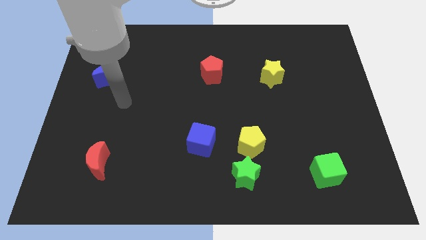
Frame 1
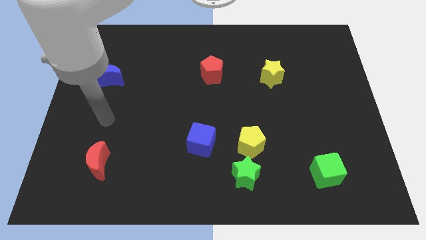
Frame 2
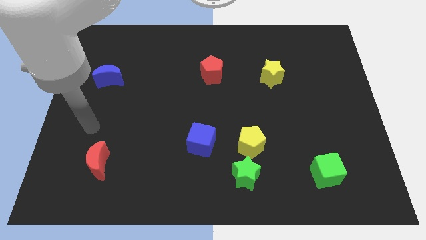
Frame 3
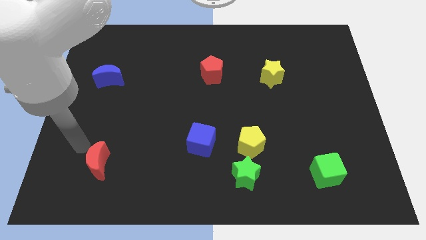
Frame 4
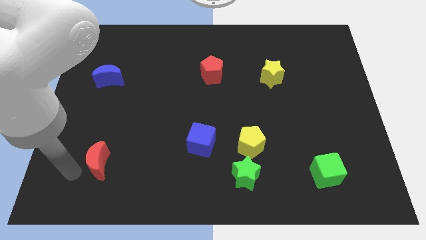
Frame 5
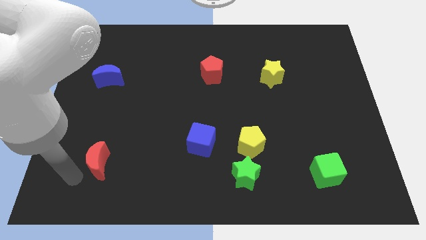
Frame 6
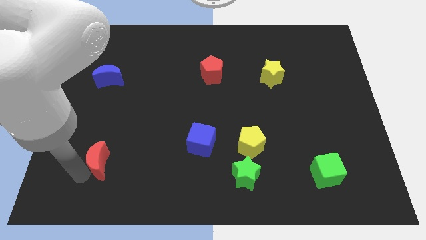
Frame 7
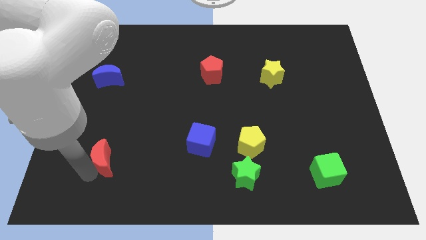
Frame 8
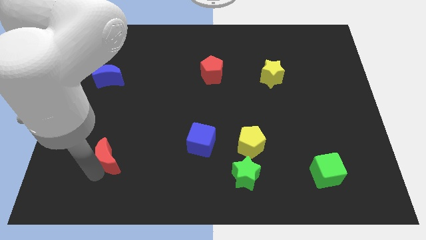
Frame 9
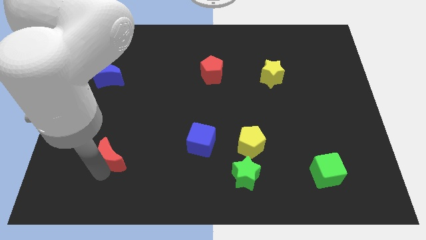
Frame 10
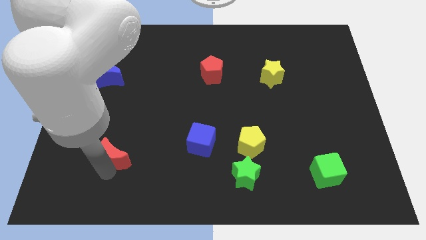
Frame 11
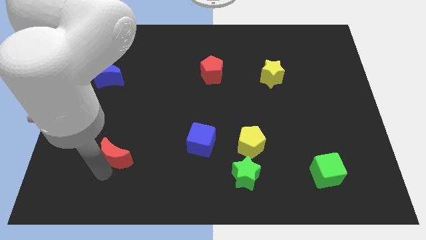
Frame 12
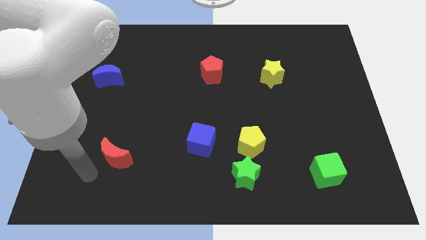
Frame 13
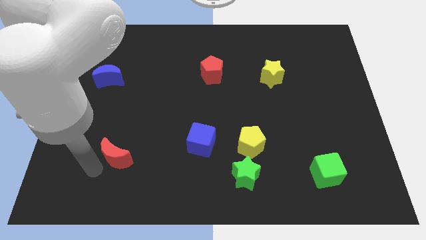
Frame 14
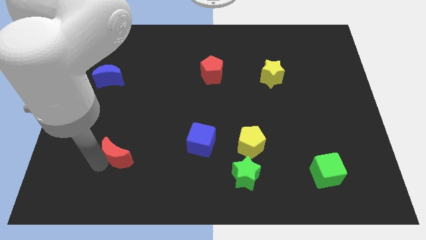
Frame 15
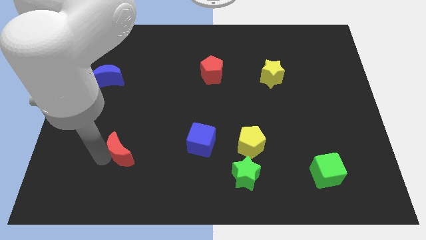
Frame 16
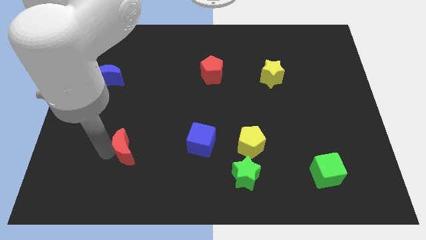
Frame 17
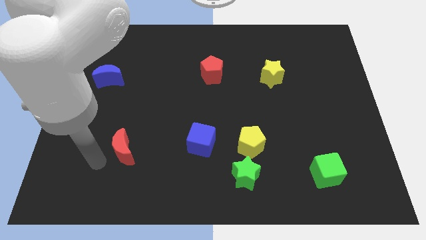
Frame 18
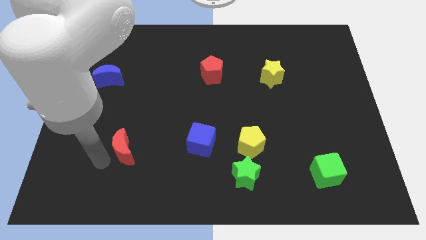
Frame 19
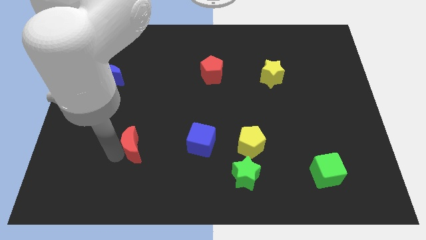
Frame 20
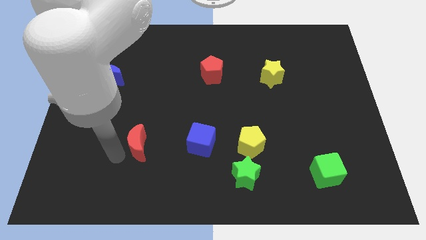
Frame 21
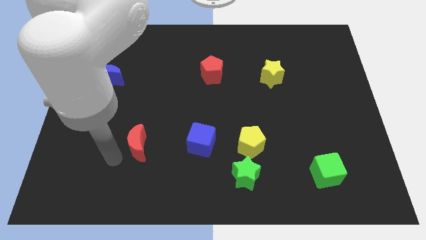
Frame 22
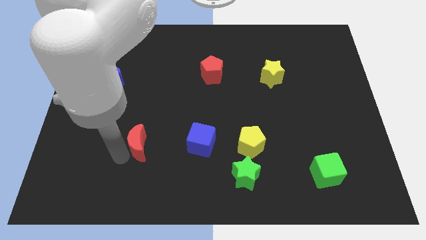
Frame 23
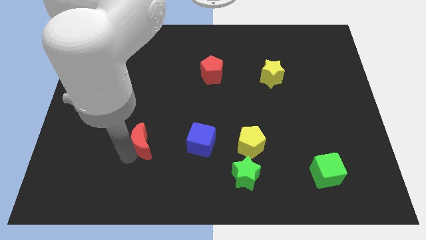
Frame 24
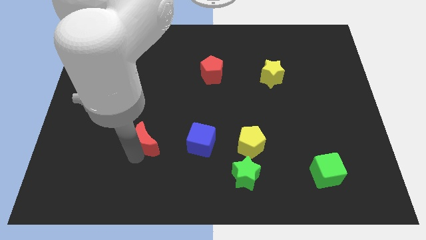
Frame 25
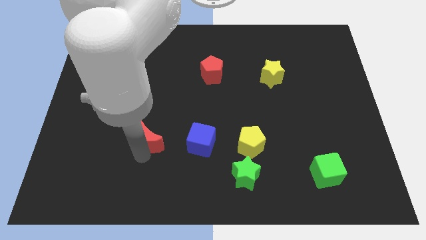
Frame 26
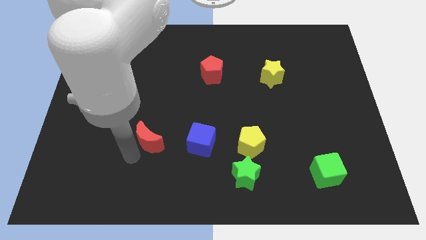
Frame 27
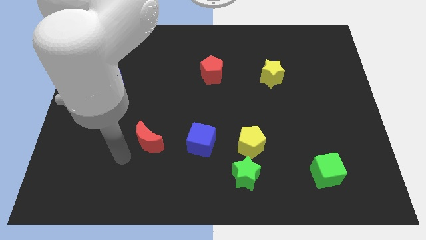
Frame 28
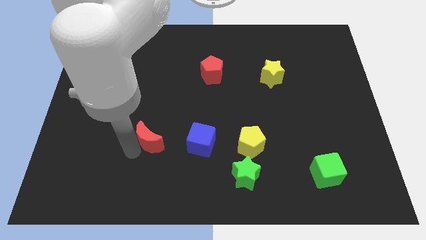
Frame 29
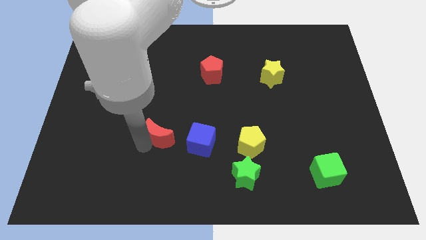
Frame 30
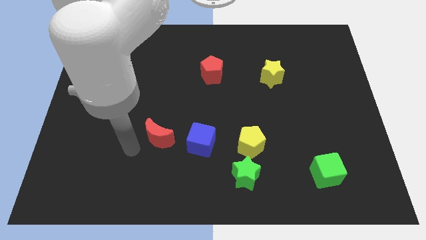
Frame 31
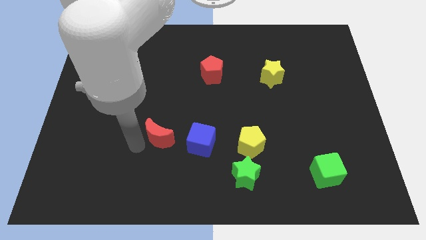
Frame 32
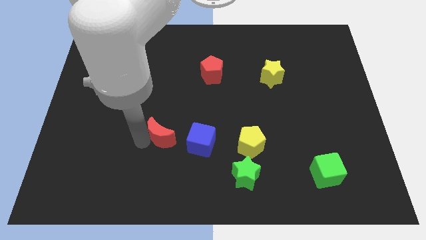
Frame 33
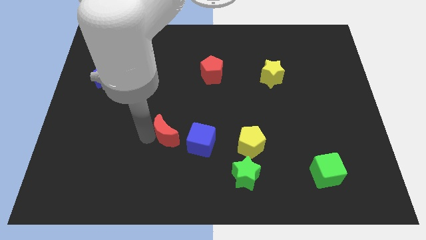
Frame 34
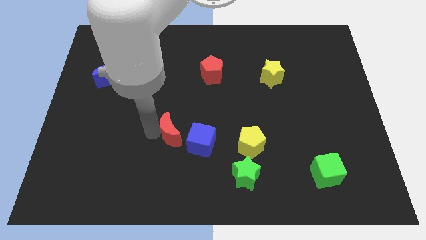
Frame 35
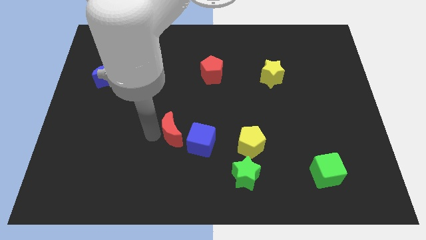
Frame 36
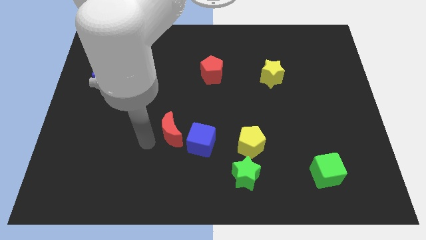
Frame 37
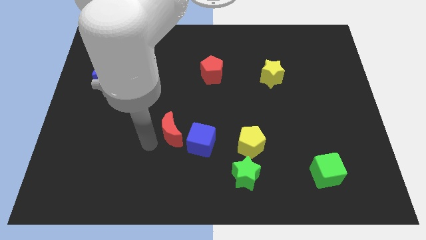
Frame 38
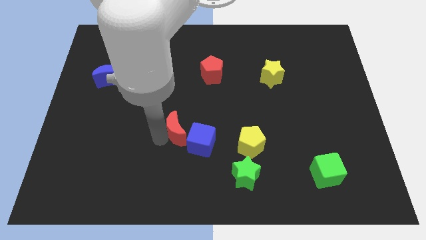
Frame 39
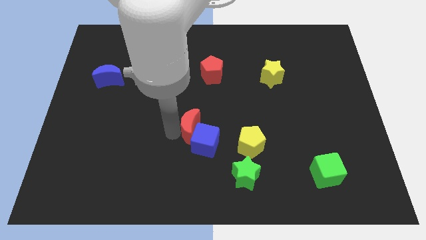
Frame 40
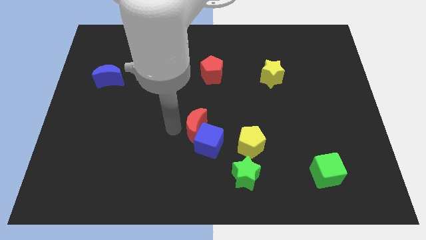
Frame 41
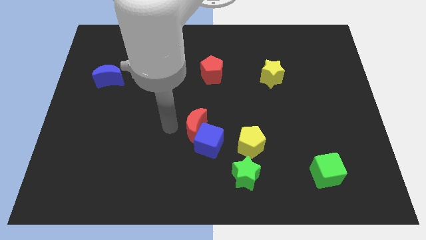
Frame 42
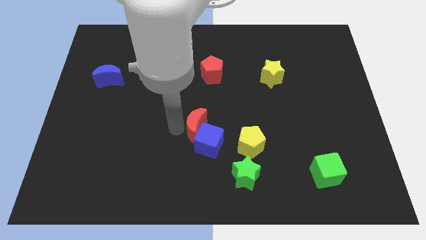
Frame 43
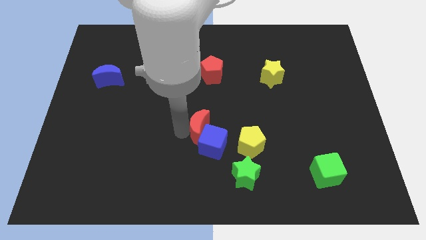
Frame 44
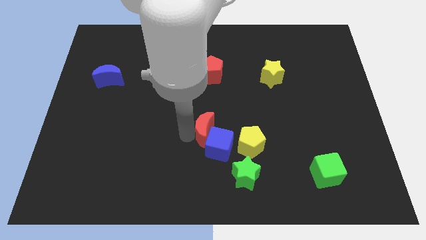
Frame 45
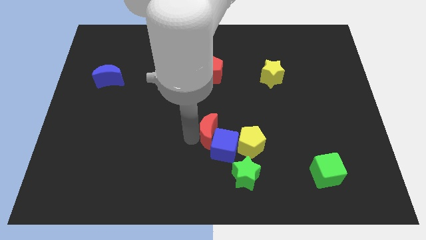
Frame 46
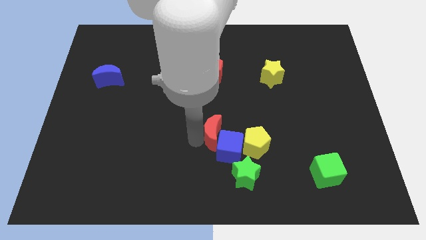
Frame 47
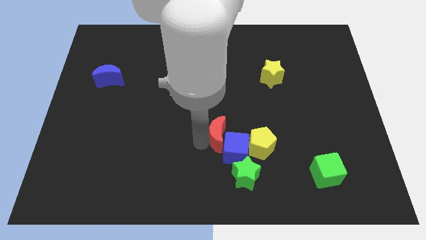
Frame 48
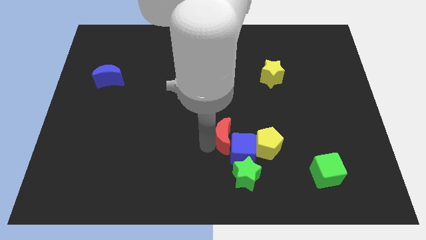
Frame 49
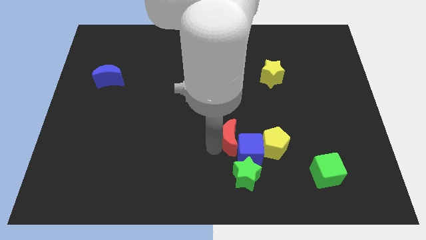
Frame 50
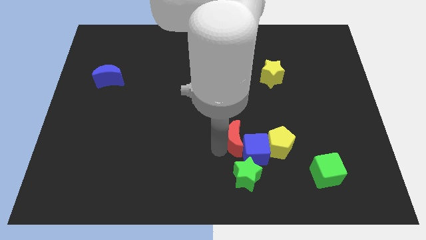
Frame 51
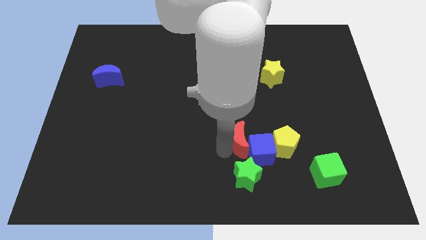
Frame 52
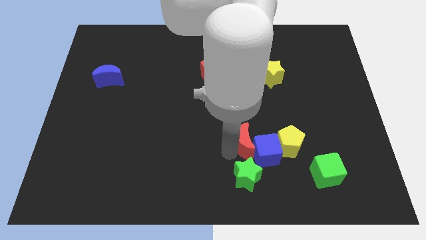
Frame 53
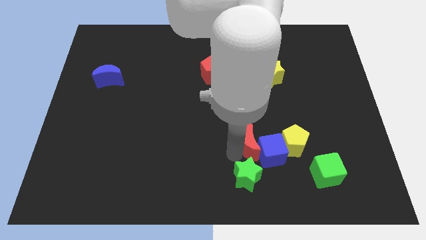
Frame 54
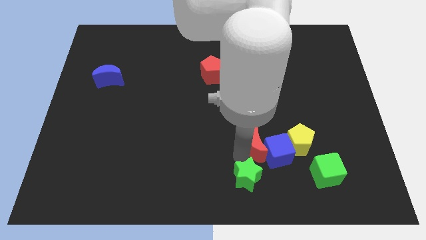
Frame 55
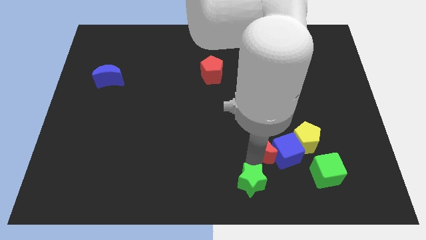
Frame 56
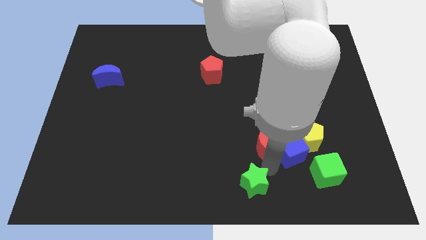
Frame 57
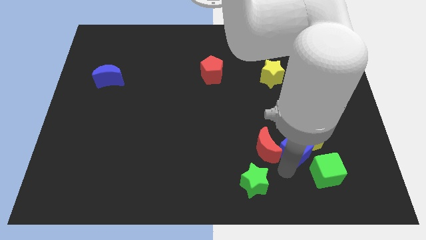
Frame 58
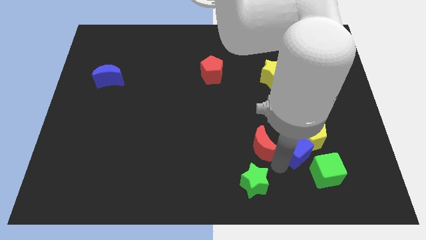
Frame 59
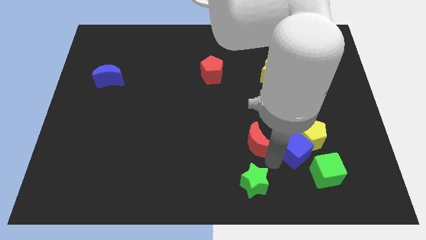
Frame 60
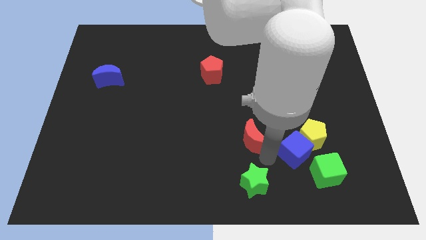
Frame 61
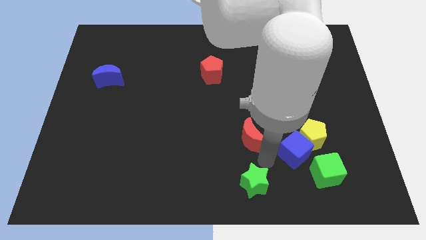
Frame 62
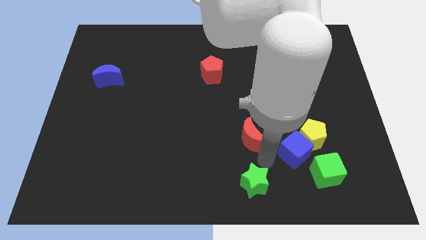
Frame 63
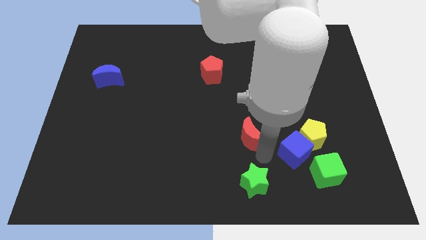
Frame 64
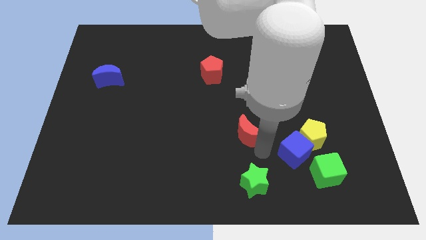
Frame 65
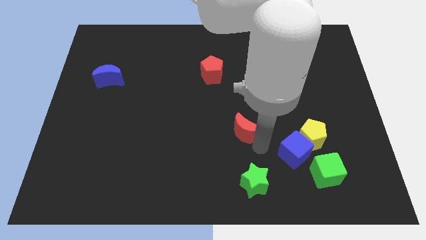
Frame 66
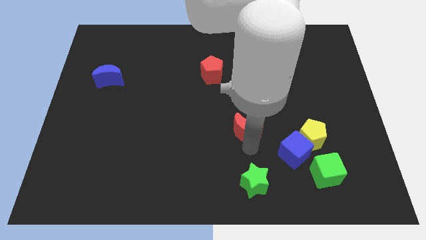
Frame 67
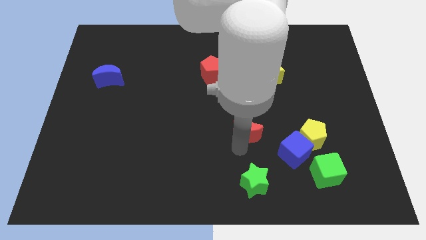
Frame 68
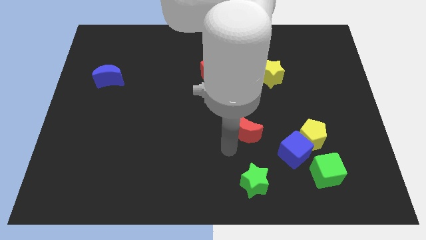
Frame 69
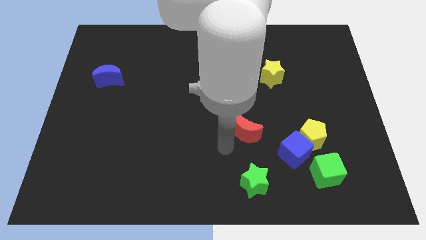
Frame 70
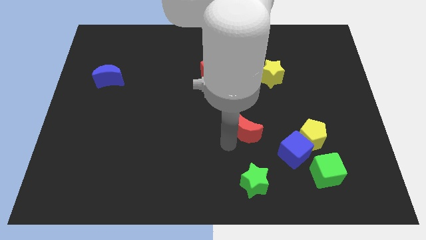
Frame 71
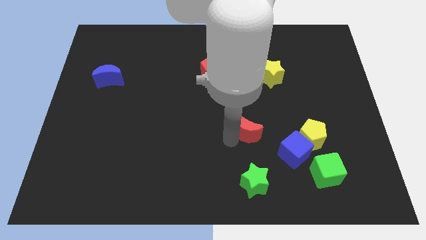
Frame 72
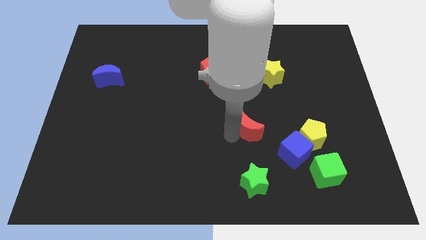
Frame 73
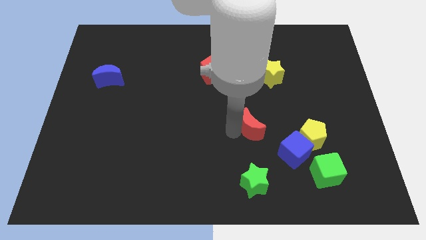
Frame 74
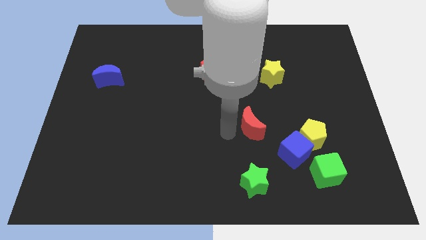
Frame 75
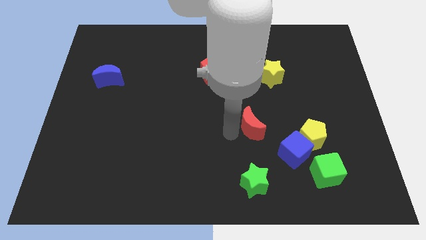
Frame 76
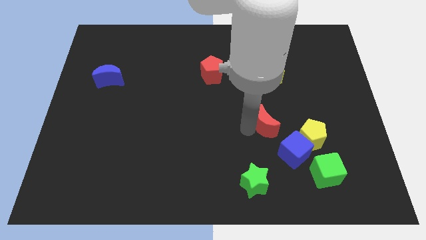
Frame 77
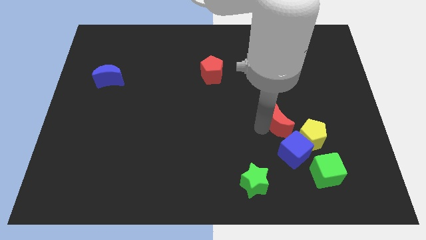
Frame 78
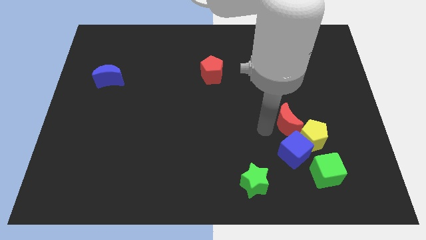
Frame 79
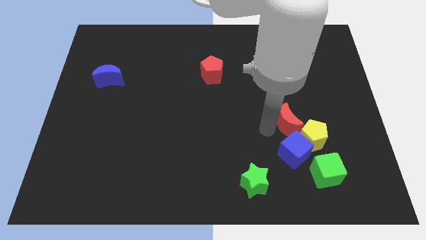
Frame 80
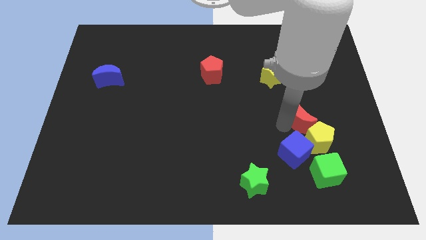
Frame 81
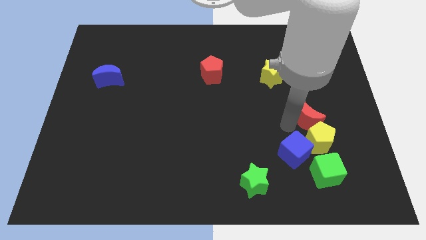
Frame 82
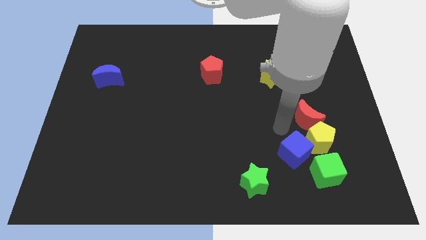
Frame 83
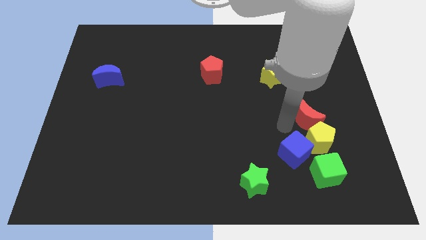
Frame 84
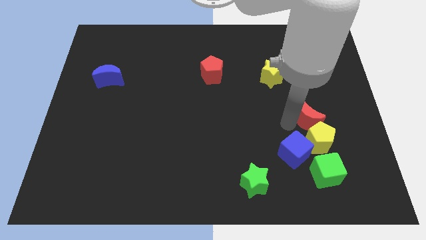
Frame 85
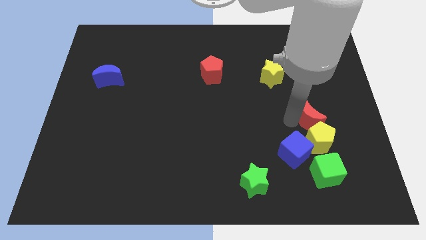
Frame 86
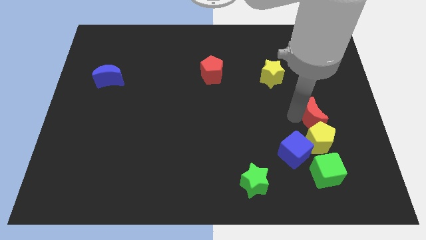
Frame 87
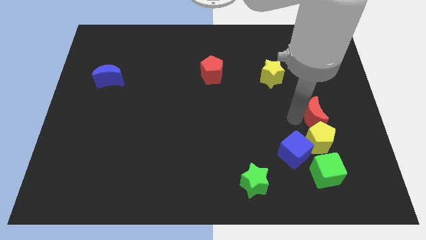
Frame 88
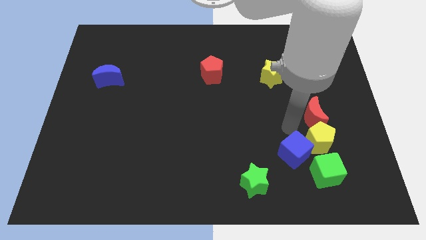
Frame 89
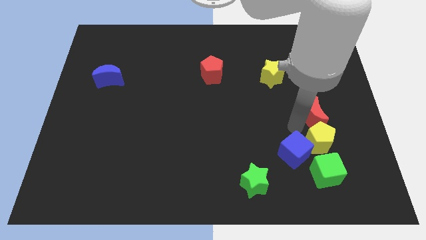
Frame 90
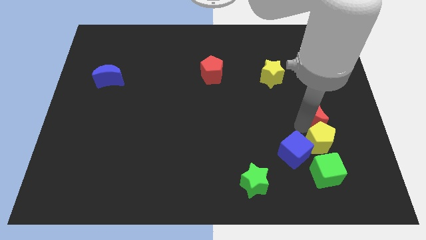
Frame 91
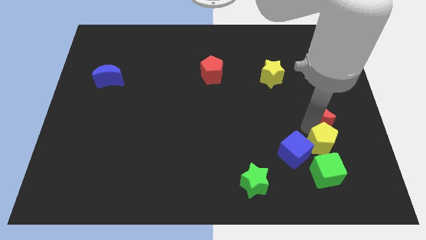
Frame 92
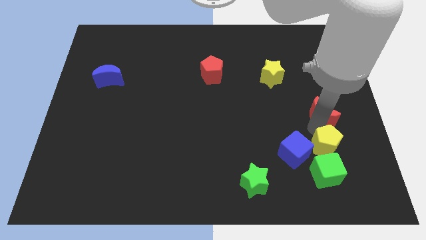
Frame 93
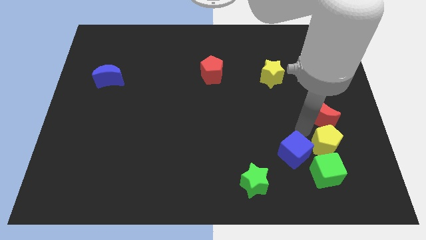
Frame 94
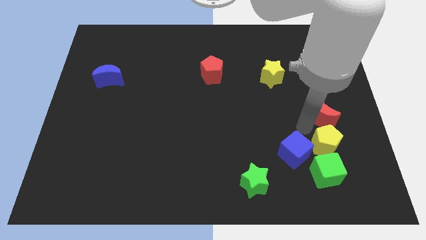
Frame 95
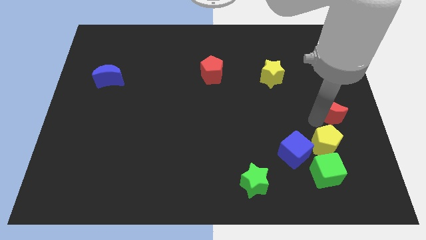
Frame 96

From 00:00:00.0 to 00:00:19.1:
push the red moon to the center right
